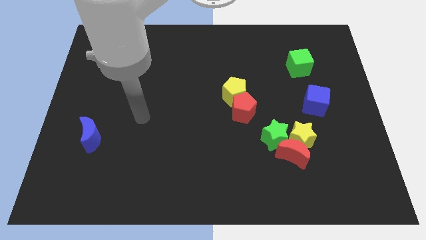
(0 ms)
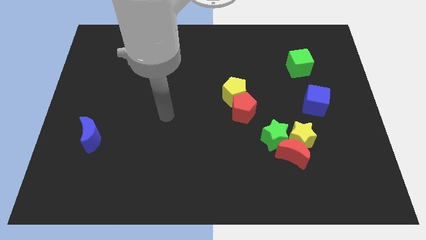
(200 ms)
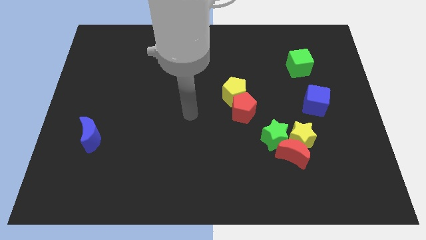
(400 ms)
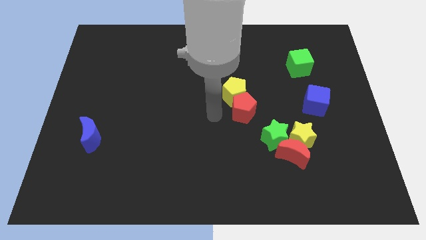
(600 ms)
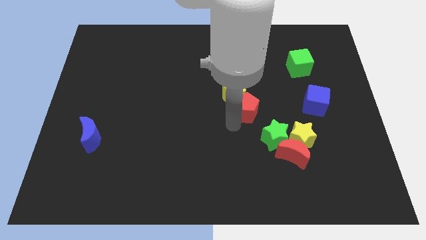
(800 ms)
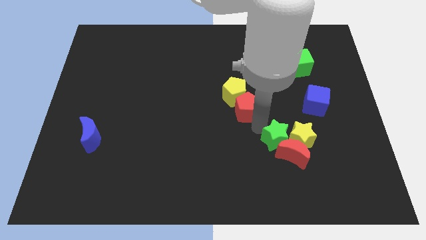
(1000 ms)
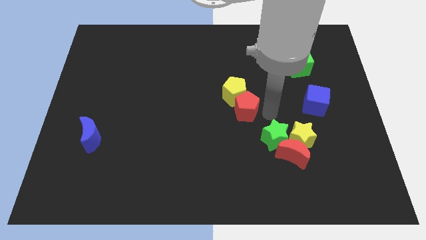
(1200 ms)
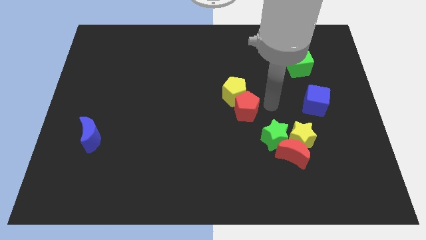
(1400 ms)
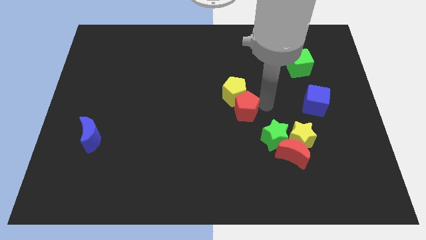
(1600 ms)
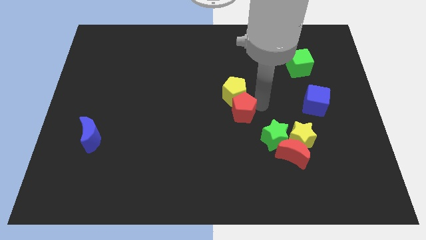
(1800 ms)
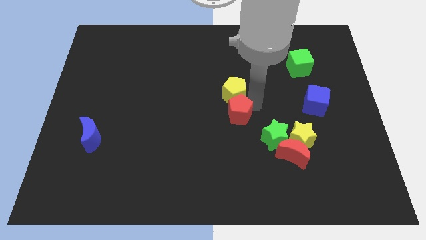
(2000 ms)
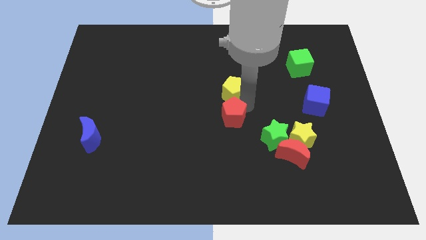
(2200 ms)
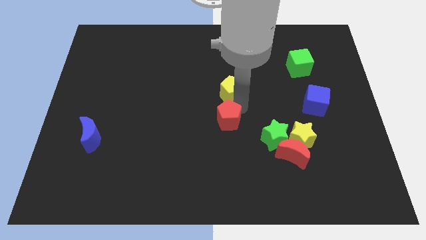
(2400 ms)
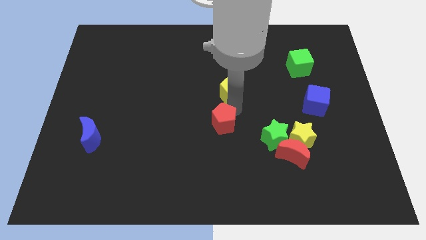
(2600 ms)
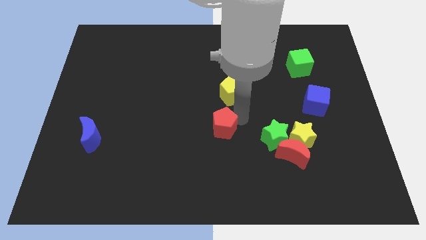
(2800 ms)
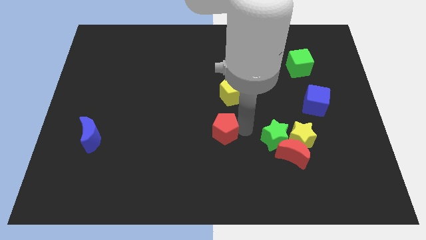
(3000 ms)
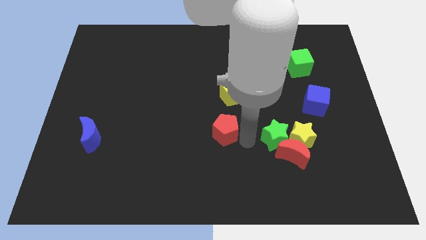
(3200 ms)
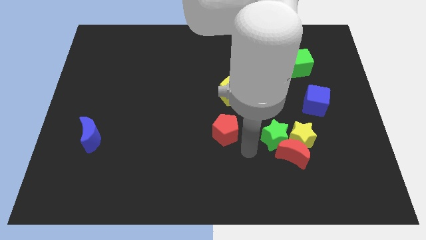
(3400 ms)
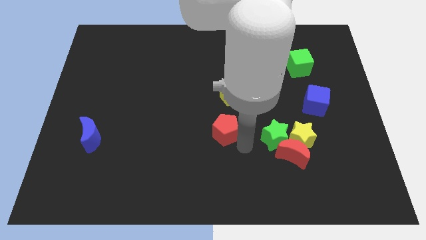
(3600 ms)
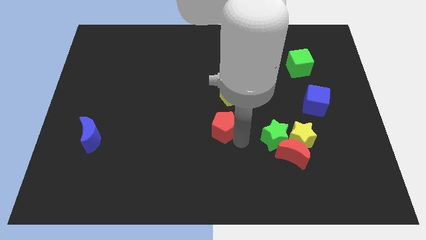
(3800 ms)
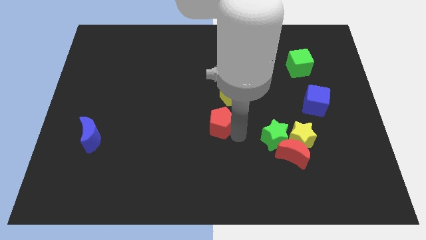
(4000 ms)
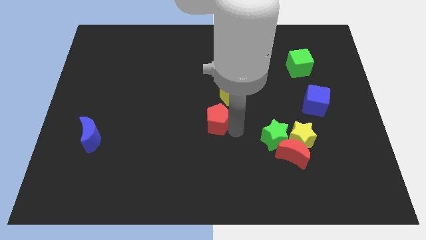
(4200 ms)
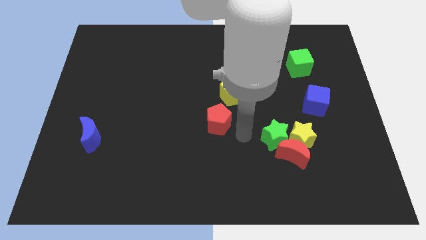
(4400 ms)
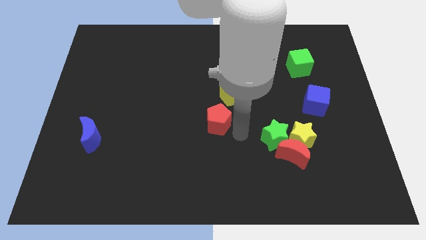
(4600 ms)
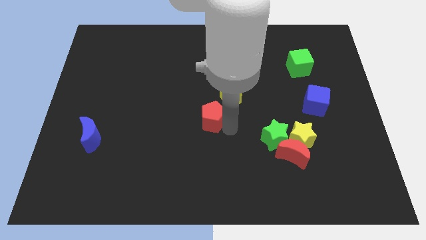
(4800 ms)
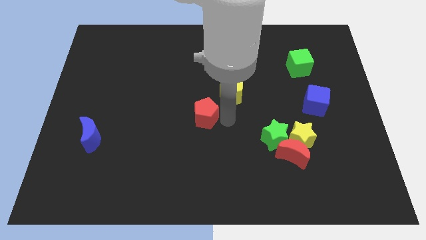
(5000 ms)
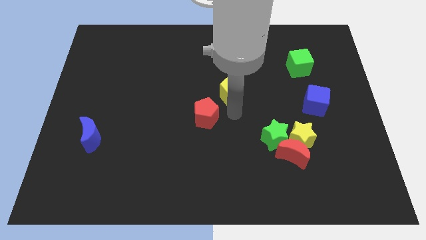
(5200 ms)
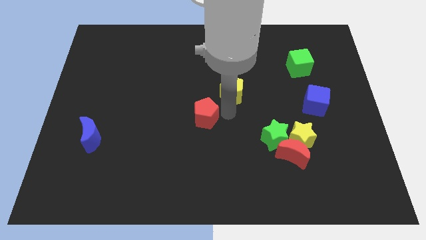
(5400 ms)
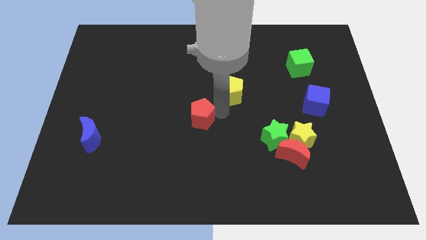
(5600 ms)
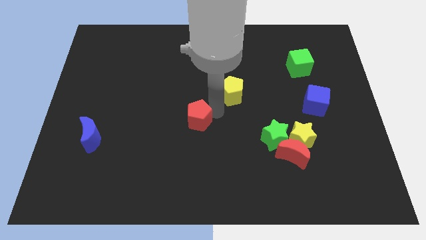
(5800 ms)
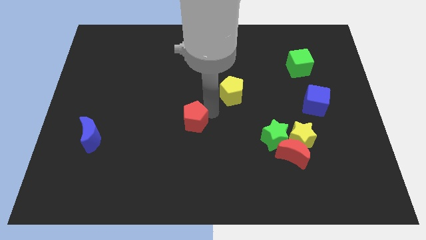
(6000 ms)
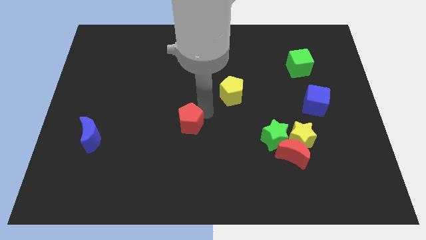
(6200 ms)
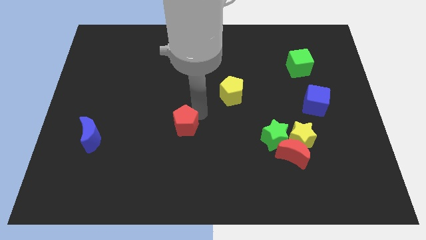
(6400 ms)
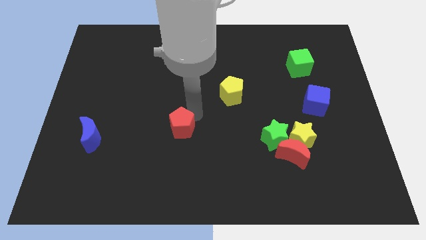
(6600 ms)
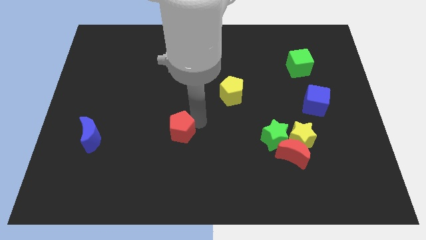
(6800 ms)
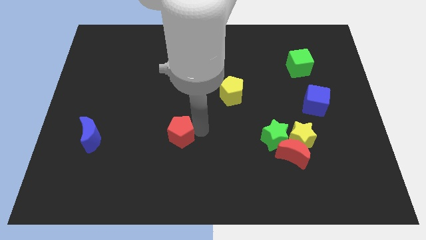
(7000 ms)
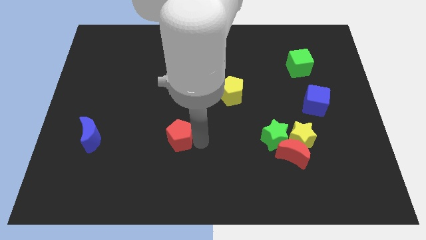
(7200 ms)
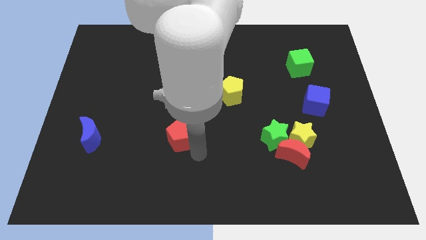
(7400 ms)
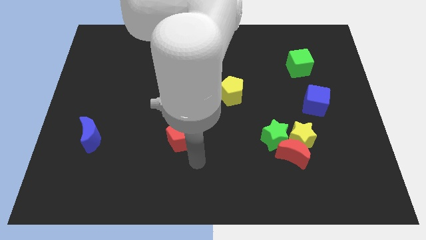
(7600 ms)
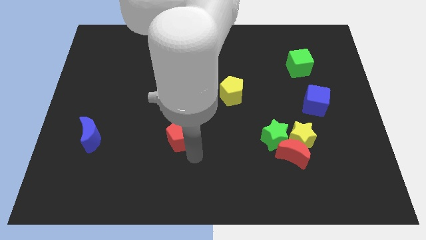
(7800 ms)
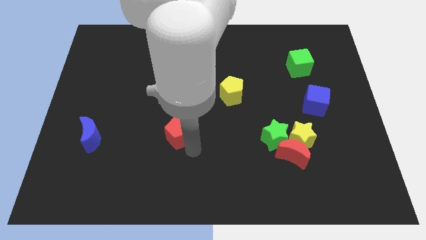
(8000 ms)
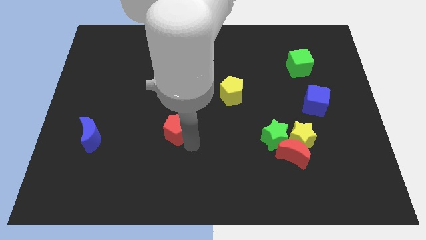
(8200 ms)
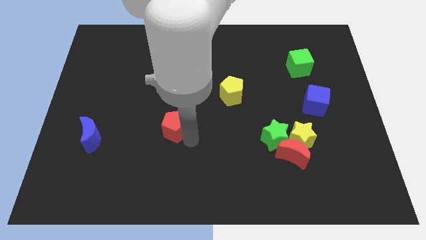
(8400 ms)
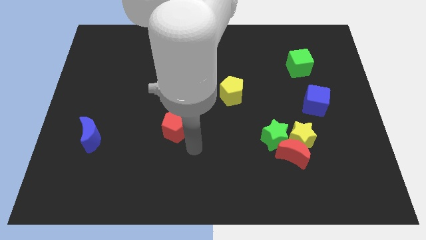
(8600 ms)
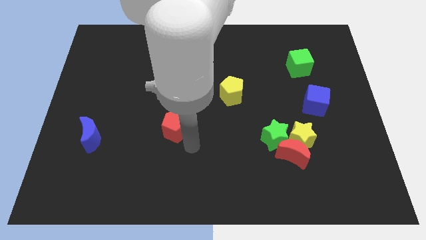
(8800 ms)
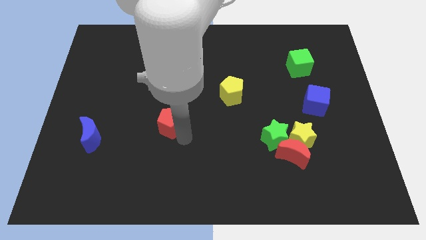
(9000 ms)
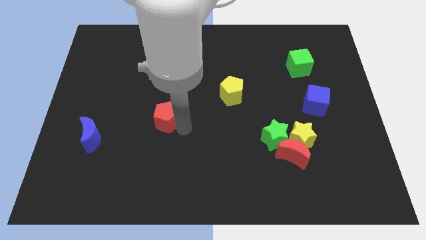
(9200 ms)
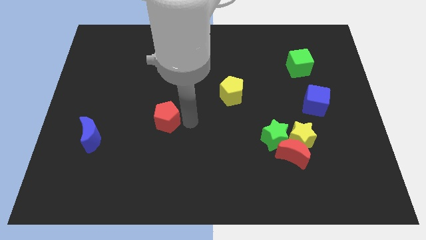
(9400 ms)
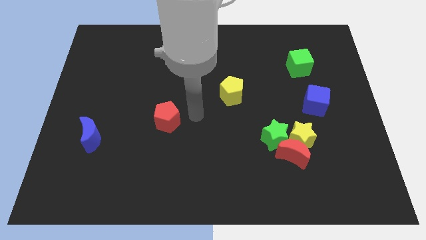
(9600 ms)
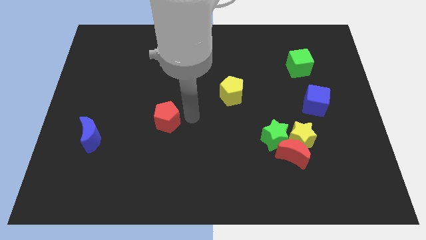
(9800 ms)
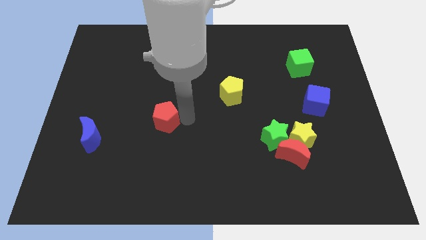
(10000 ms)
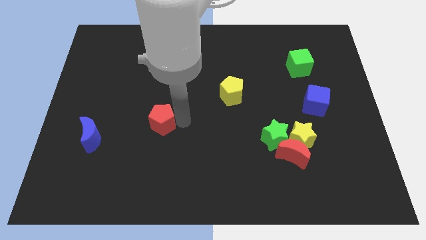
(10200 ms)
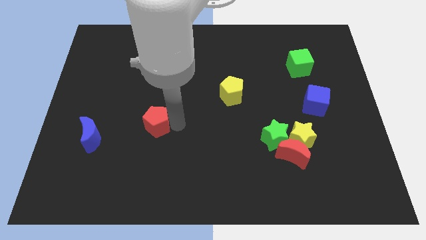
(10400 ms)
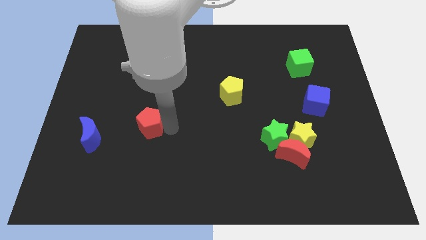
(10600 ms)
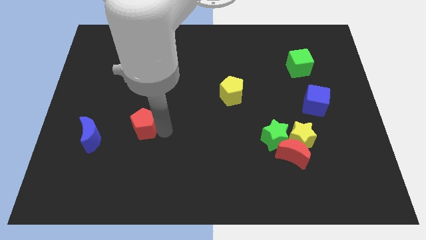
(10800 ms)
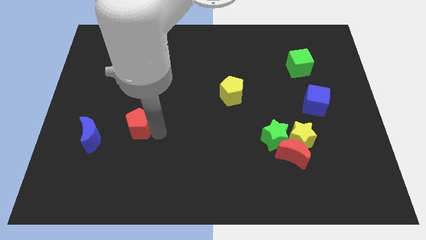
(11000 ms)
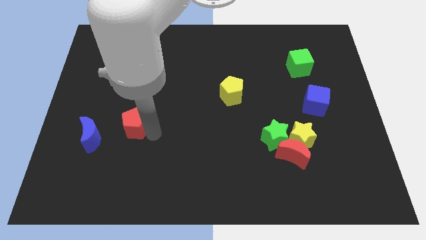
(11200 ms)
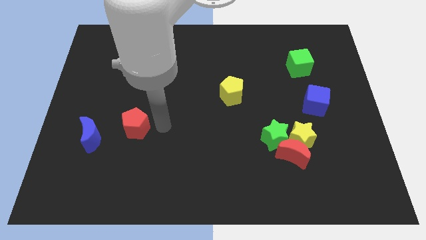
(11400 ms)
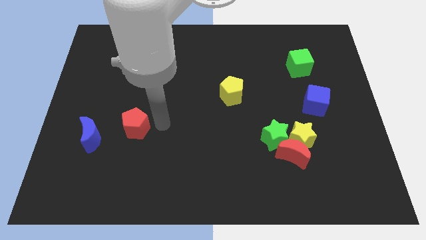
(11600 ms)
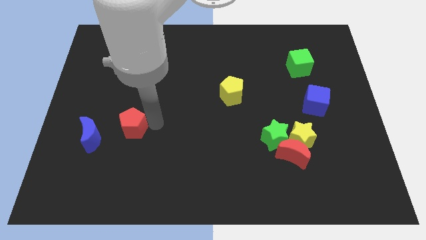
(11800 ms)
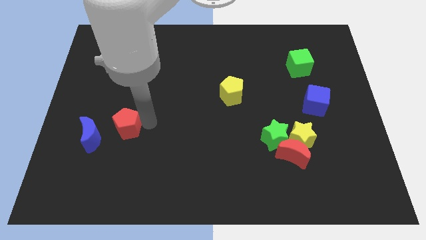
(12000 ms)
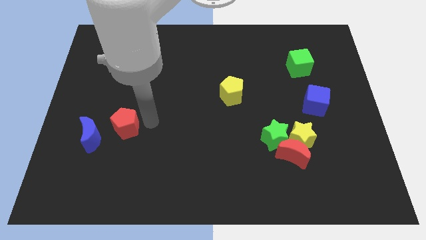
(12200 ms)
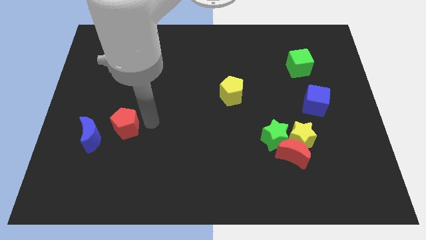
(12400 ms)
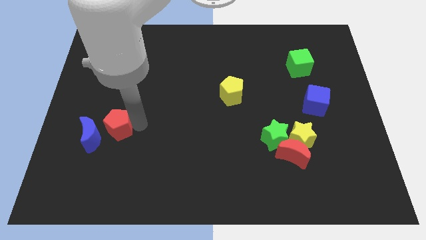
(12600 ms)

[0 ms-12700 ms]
move the red pentagon towards the blue moon

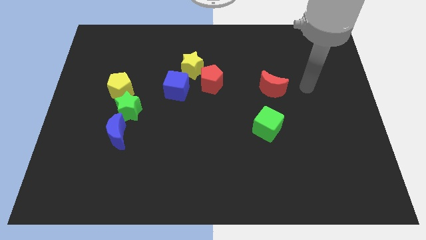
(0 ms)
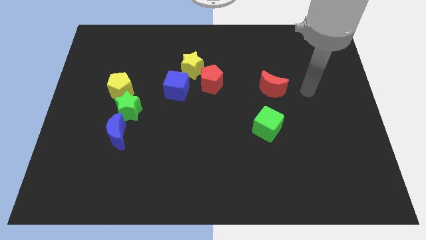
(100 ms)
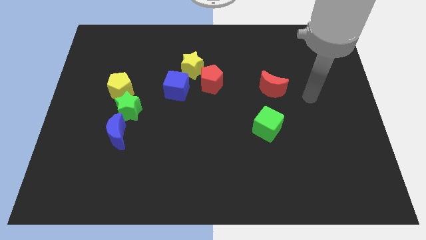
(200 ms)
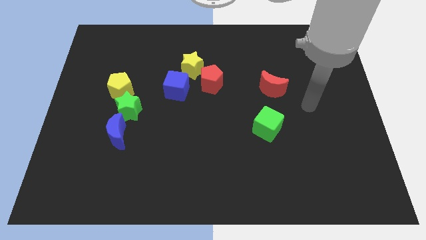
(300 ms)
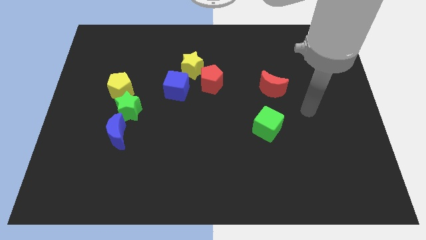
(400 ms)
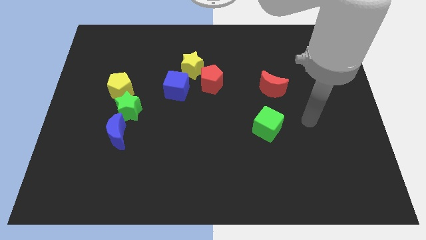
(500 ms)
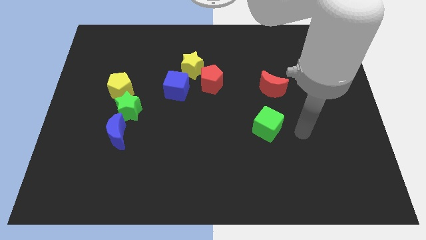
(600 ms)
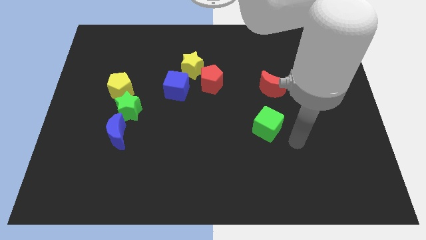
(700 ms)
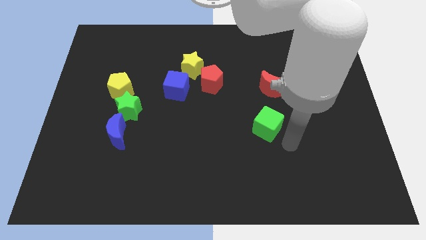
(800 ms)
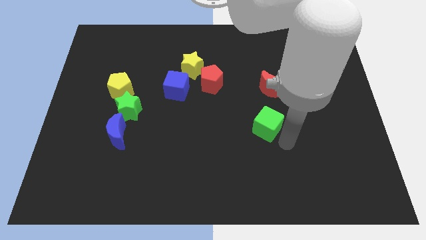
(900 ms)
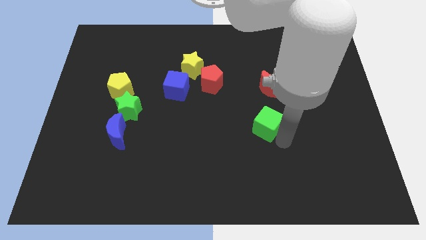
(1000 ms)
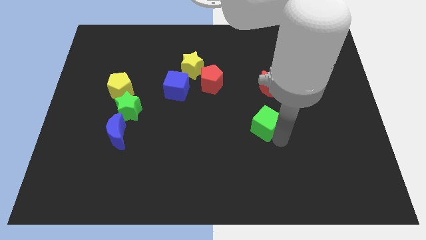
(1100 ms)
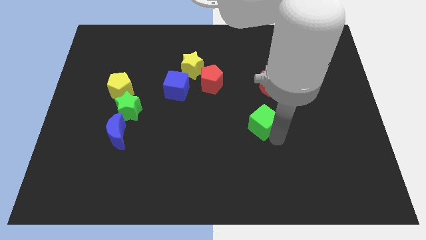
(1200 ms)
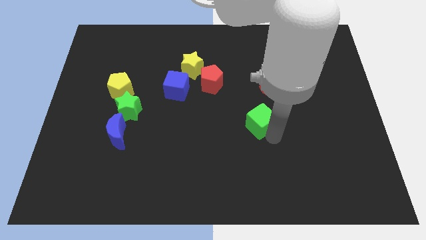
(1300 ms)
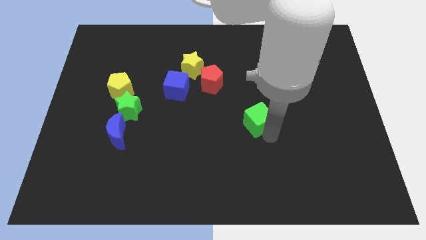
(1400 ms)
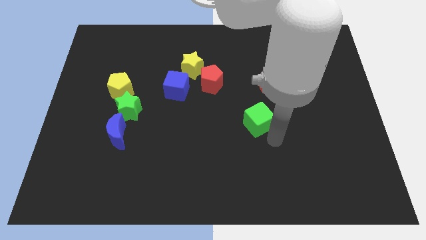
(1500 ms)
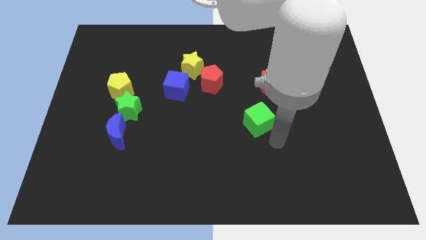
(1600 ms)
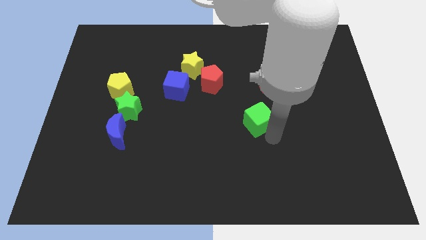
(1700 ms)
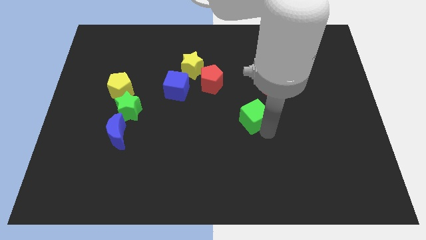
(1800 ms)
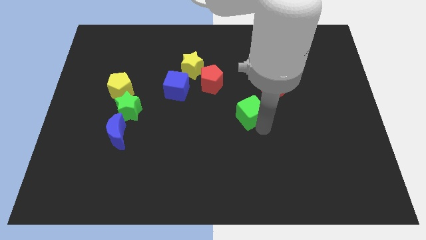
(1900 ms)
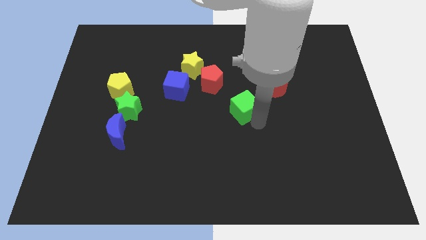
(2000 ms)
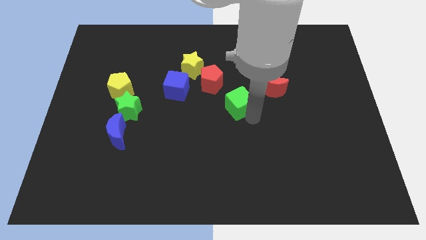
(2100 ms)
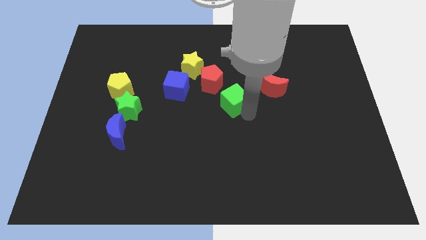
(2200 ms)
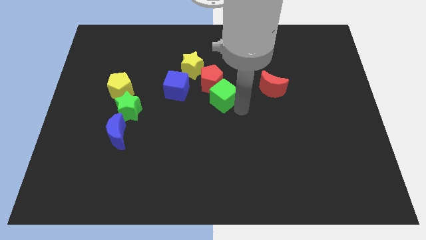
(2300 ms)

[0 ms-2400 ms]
slide the green cube to the red pentagon
